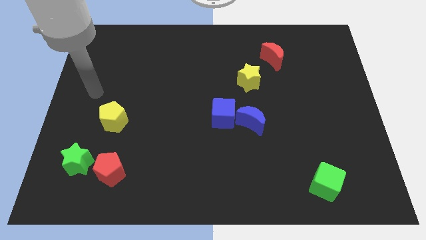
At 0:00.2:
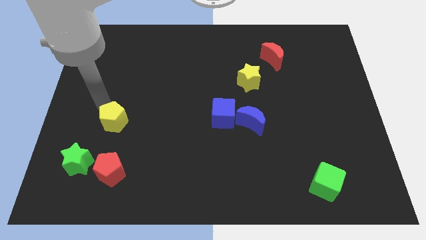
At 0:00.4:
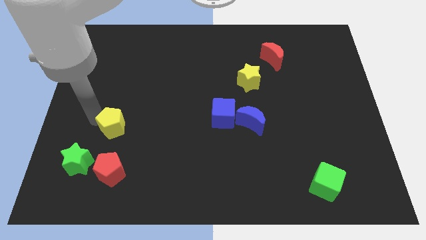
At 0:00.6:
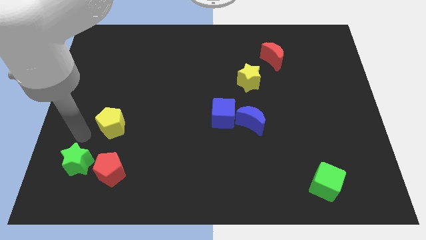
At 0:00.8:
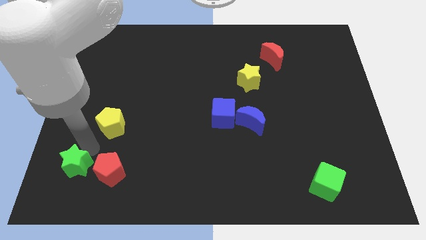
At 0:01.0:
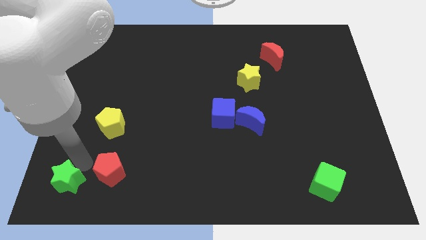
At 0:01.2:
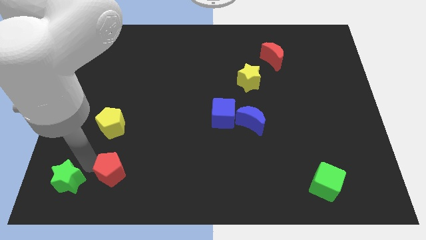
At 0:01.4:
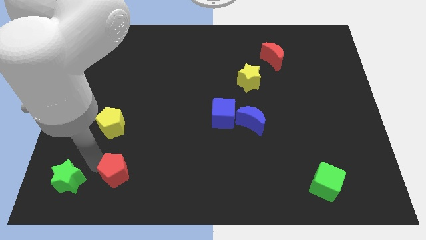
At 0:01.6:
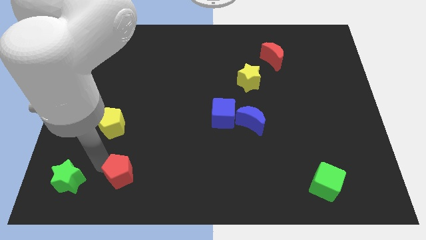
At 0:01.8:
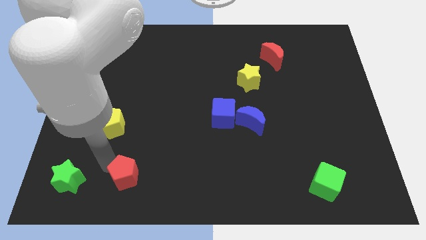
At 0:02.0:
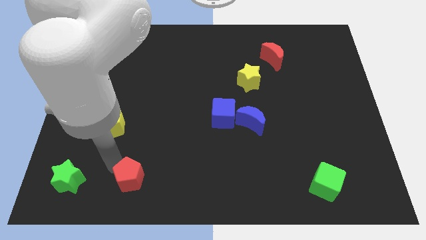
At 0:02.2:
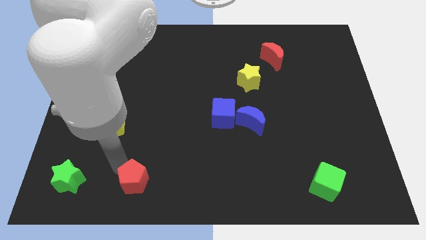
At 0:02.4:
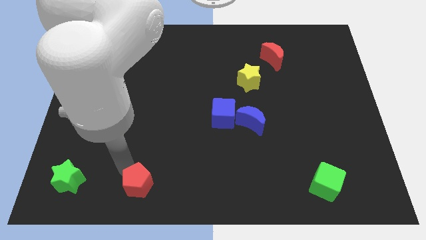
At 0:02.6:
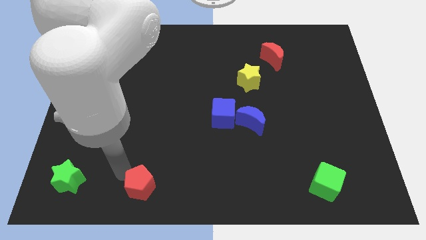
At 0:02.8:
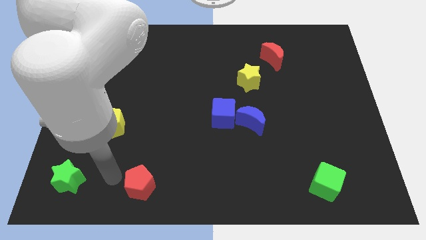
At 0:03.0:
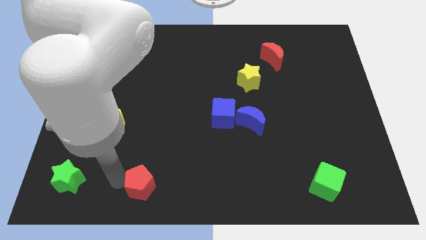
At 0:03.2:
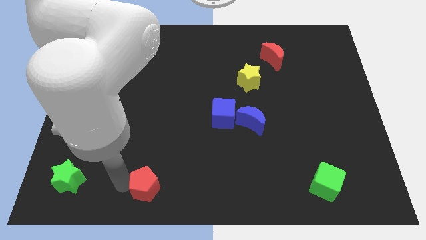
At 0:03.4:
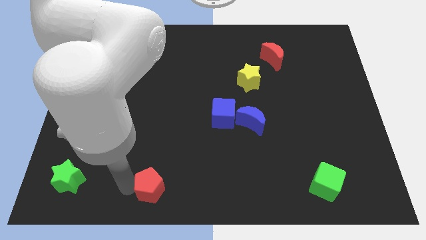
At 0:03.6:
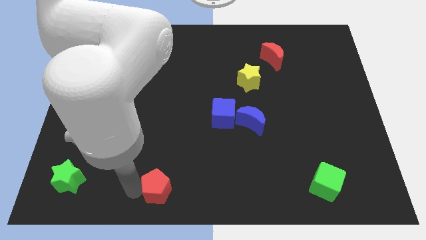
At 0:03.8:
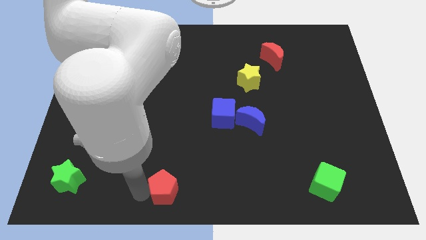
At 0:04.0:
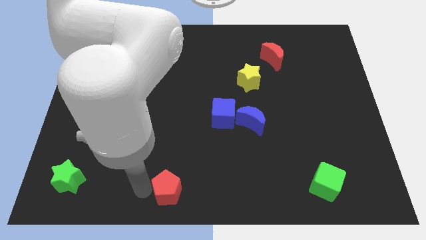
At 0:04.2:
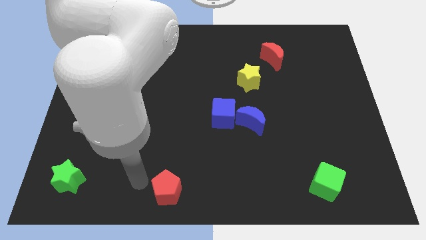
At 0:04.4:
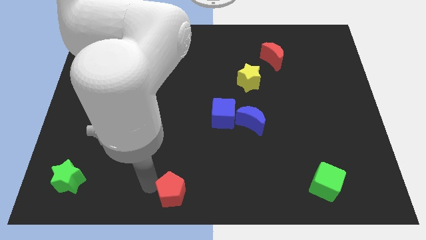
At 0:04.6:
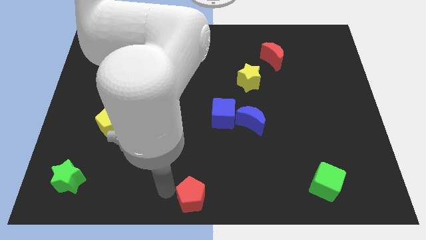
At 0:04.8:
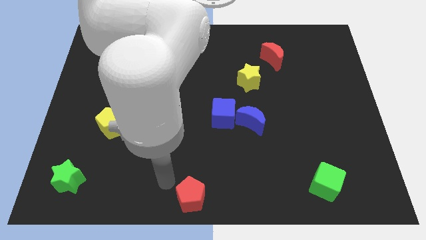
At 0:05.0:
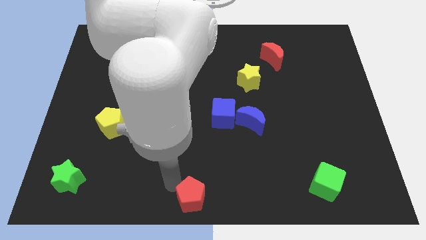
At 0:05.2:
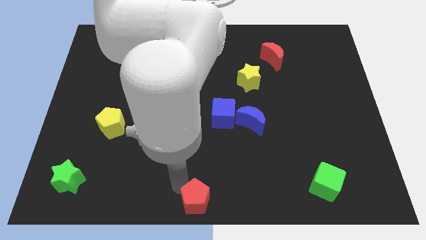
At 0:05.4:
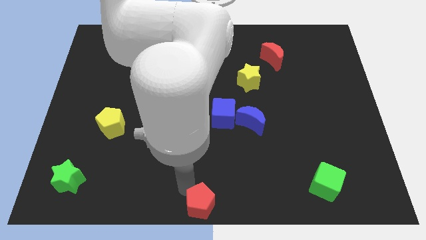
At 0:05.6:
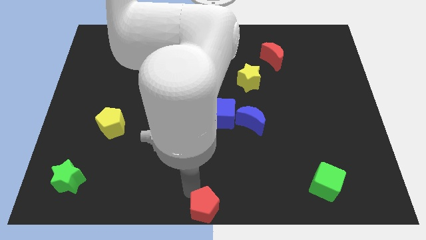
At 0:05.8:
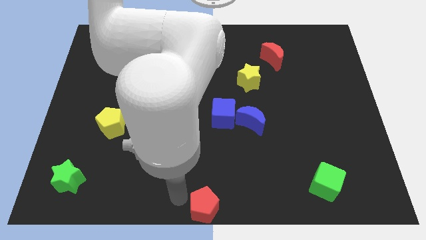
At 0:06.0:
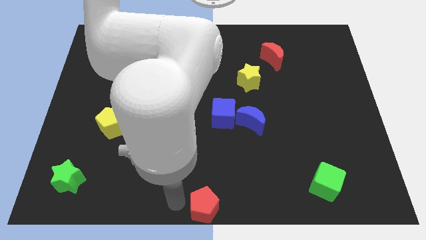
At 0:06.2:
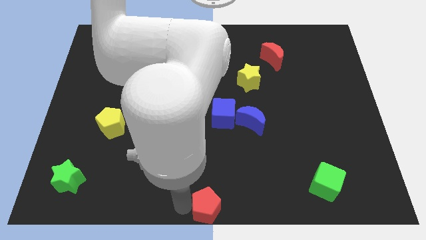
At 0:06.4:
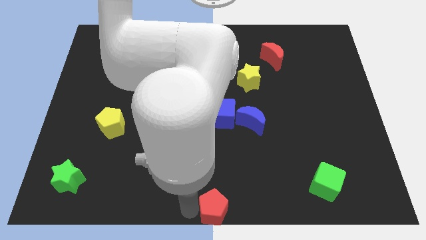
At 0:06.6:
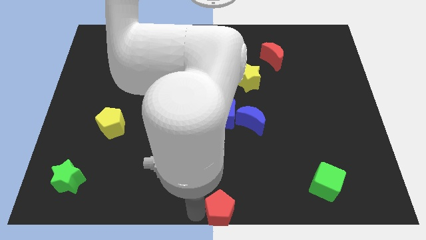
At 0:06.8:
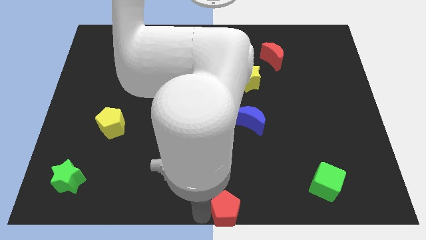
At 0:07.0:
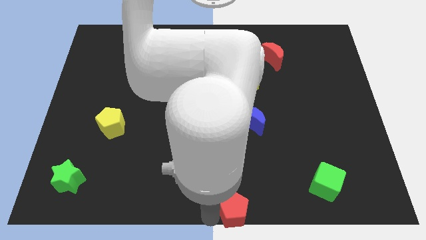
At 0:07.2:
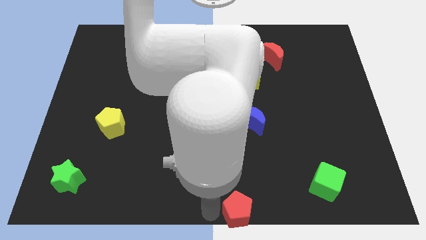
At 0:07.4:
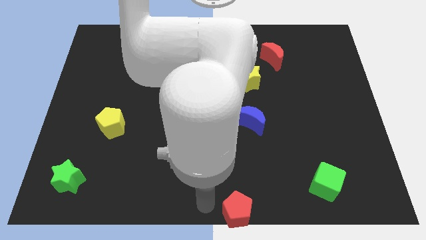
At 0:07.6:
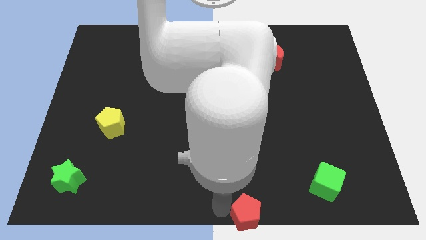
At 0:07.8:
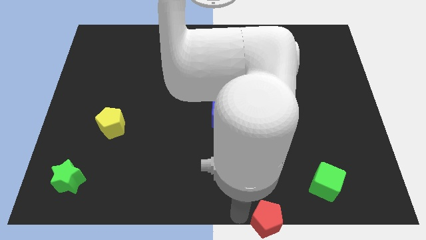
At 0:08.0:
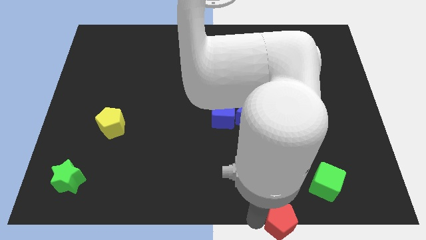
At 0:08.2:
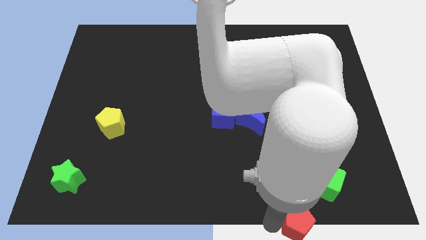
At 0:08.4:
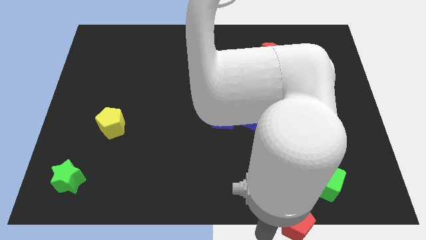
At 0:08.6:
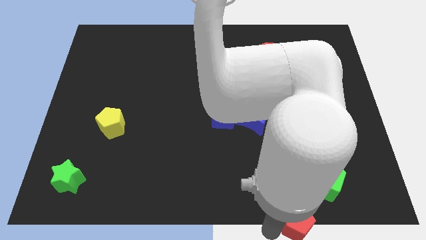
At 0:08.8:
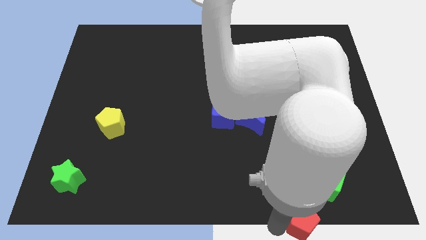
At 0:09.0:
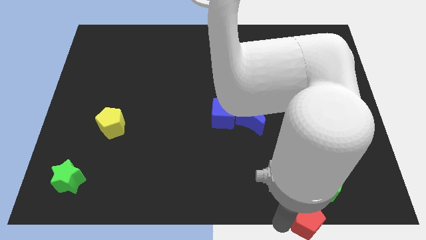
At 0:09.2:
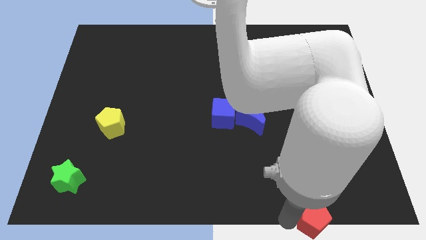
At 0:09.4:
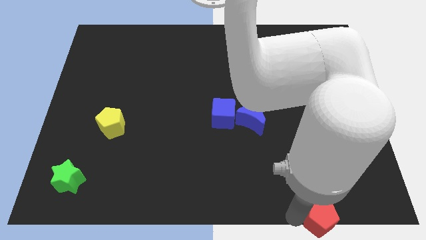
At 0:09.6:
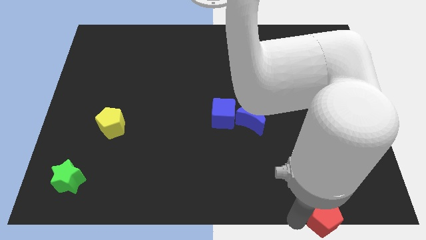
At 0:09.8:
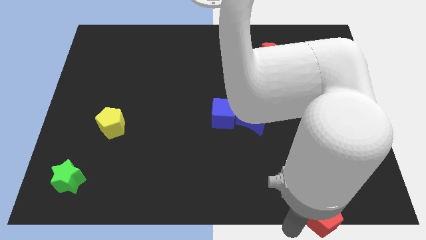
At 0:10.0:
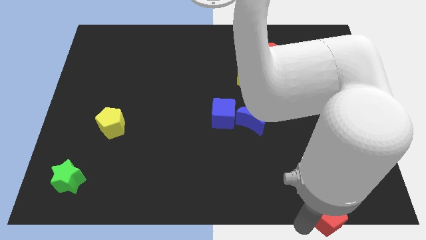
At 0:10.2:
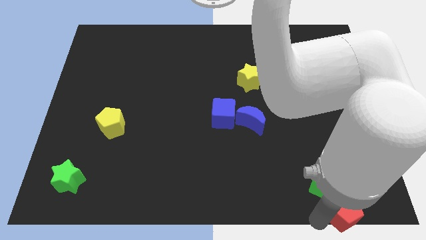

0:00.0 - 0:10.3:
slide the red pentagon to the bottom right

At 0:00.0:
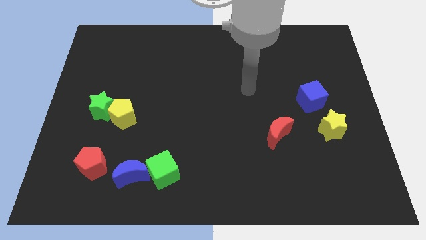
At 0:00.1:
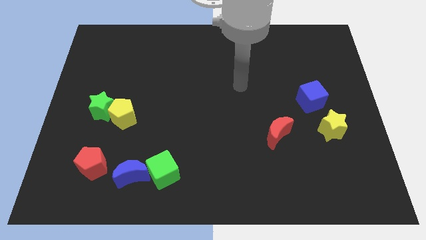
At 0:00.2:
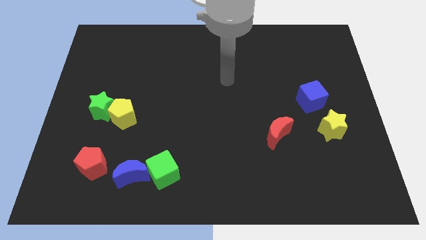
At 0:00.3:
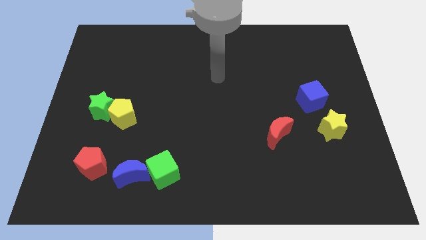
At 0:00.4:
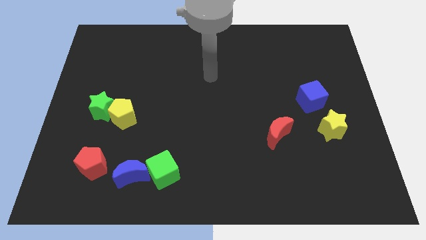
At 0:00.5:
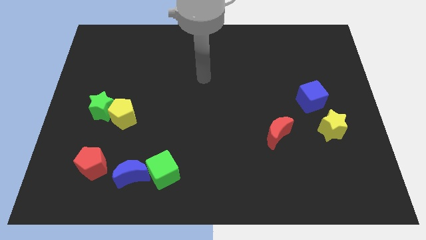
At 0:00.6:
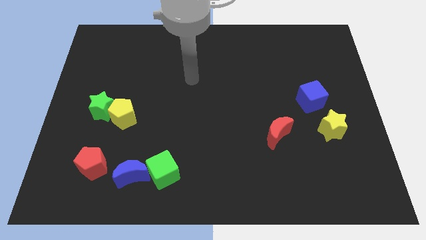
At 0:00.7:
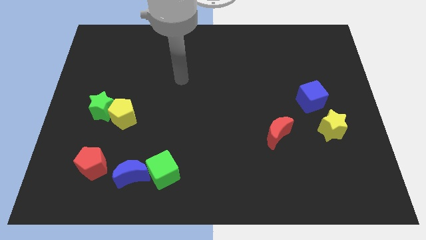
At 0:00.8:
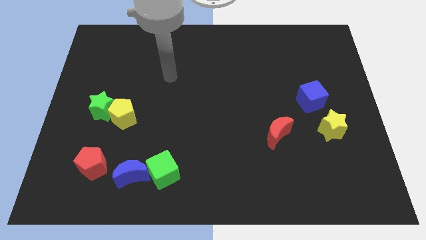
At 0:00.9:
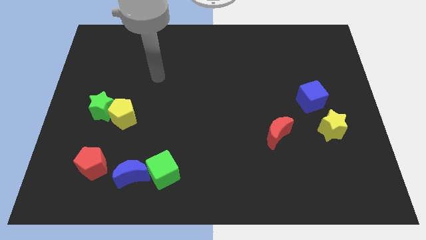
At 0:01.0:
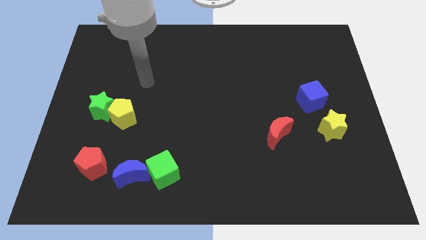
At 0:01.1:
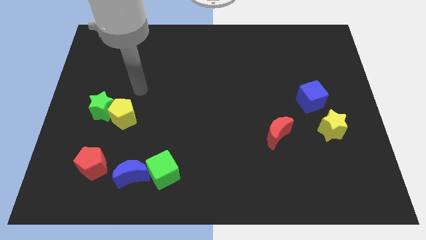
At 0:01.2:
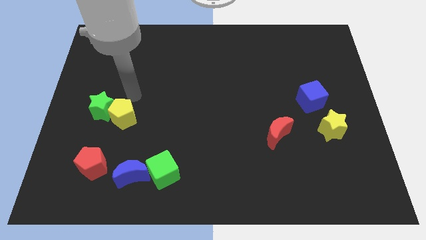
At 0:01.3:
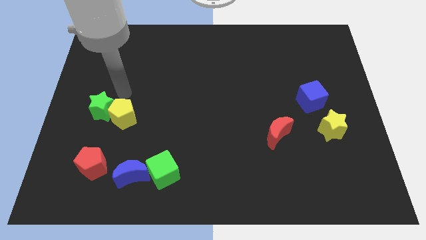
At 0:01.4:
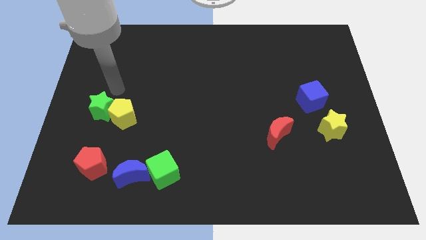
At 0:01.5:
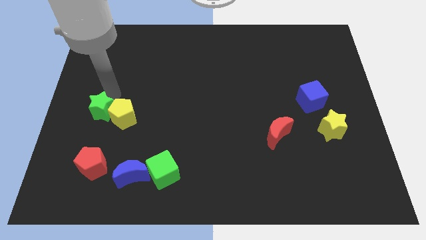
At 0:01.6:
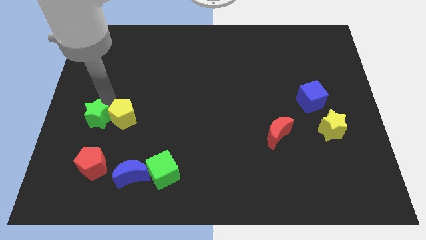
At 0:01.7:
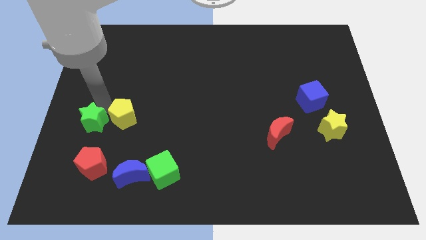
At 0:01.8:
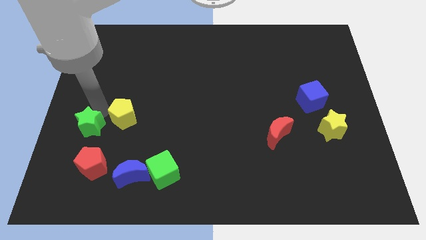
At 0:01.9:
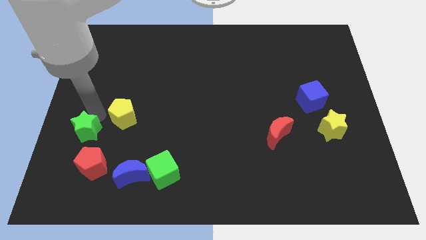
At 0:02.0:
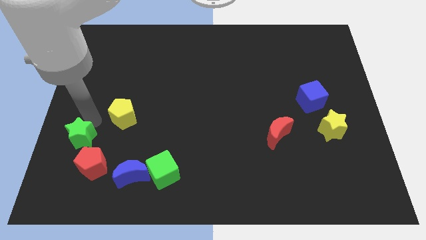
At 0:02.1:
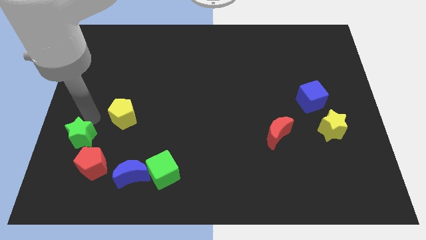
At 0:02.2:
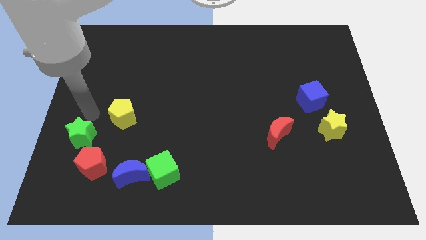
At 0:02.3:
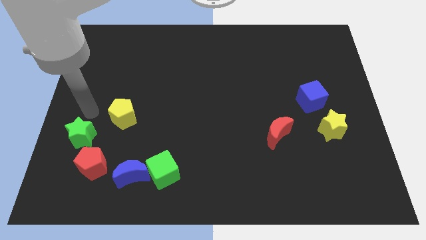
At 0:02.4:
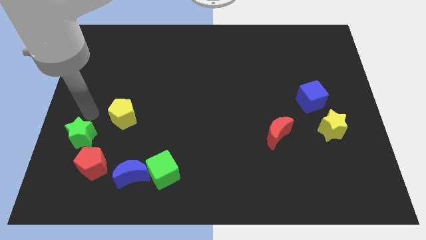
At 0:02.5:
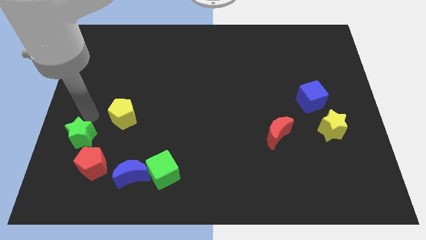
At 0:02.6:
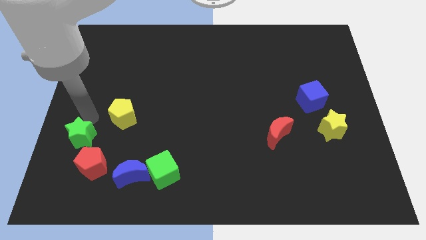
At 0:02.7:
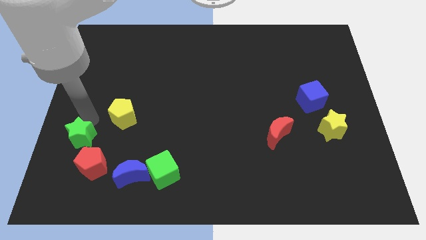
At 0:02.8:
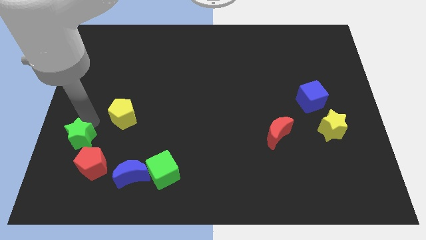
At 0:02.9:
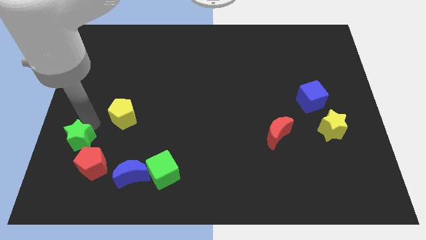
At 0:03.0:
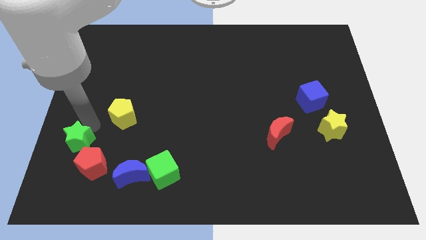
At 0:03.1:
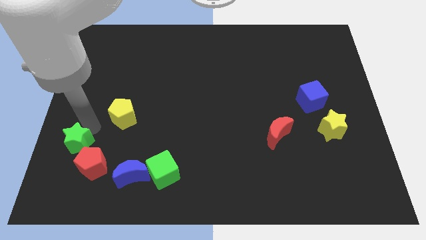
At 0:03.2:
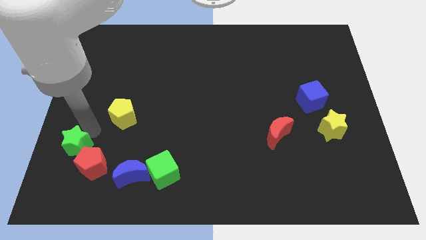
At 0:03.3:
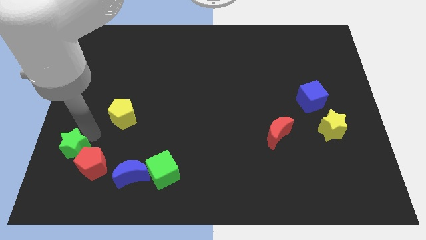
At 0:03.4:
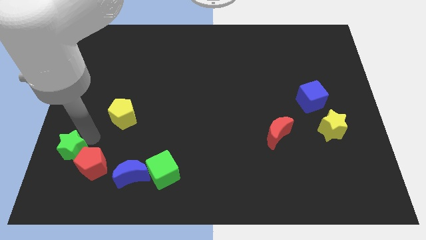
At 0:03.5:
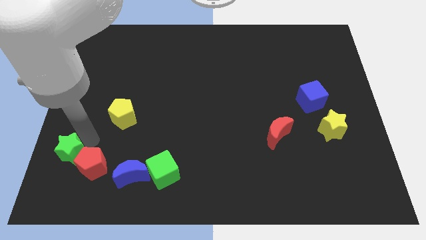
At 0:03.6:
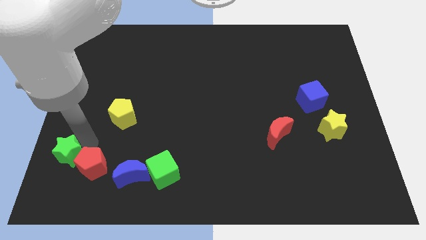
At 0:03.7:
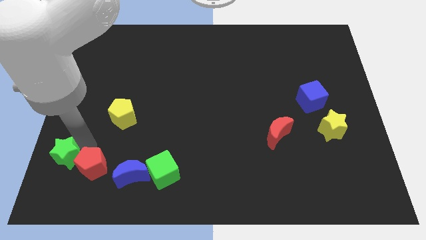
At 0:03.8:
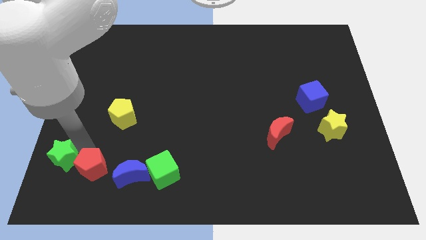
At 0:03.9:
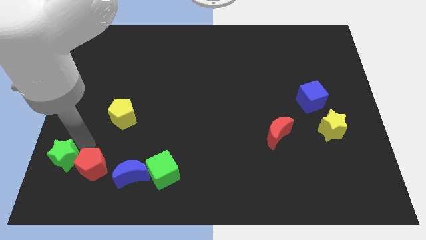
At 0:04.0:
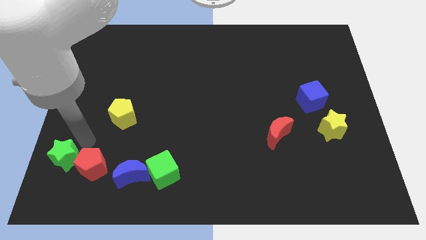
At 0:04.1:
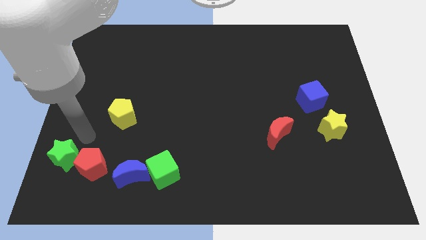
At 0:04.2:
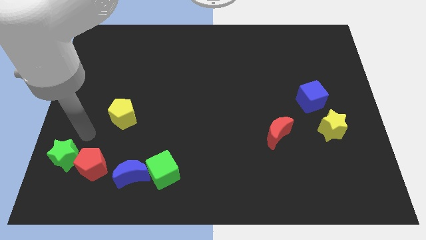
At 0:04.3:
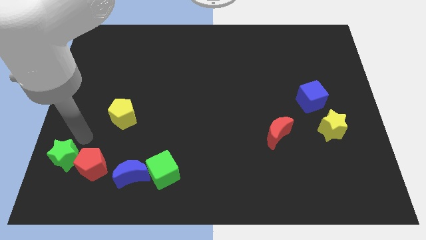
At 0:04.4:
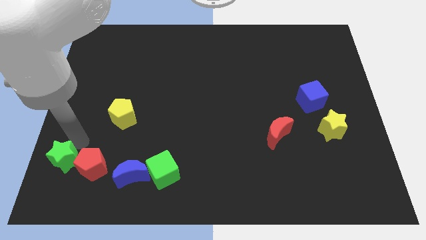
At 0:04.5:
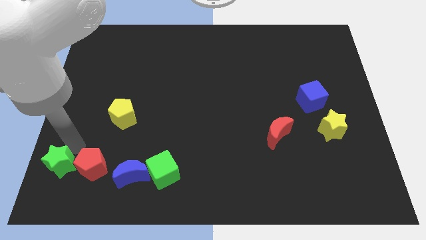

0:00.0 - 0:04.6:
put the green star to the bottom left corner
